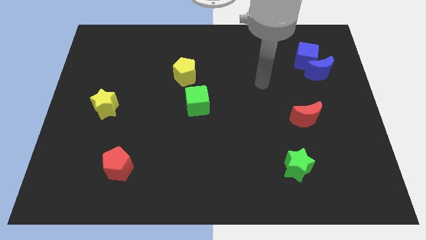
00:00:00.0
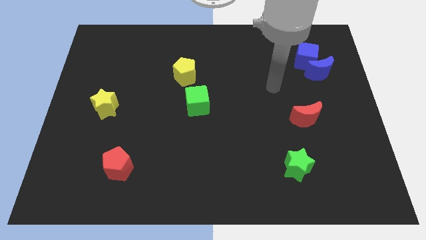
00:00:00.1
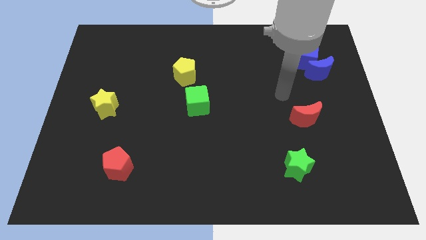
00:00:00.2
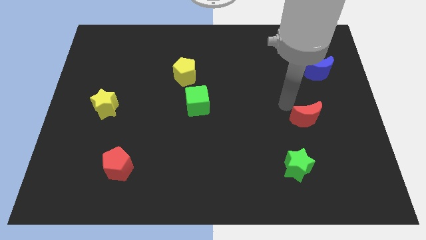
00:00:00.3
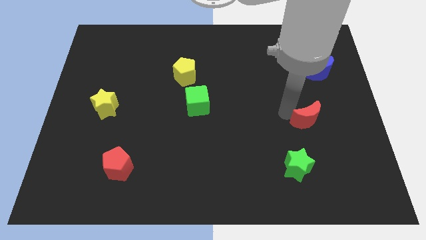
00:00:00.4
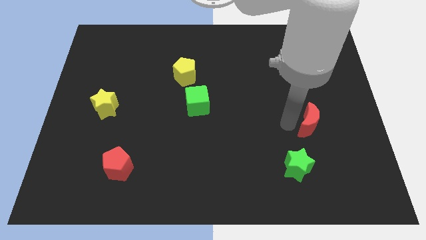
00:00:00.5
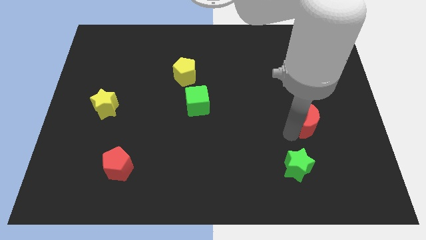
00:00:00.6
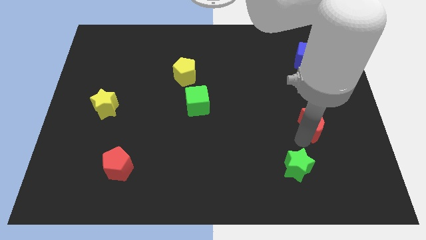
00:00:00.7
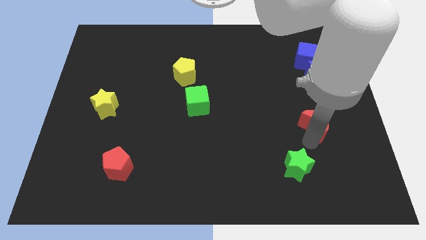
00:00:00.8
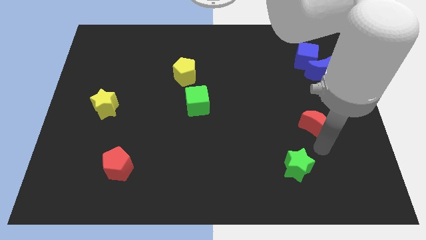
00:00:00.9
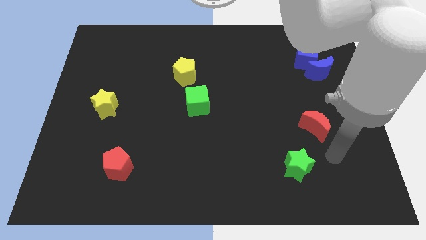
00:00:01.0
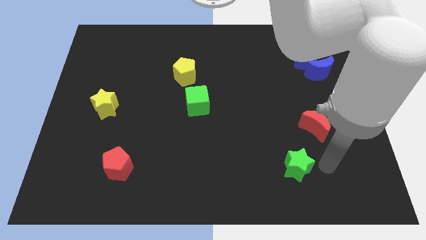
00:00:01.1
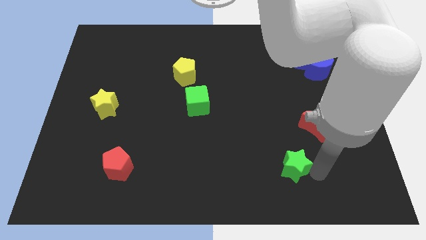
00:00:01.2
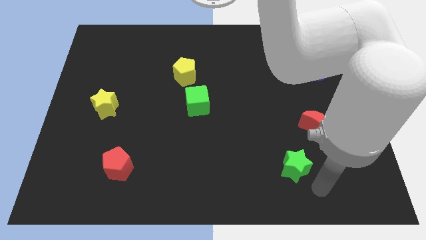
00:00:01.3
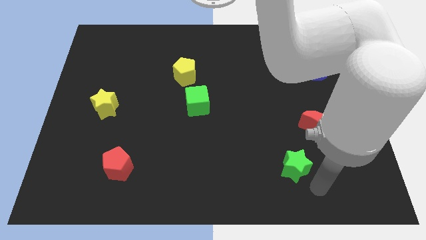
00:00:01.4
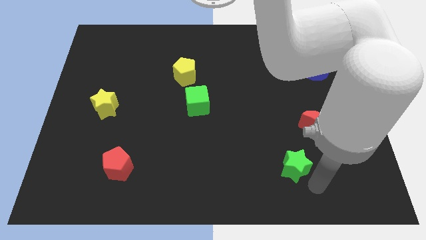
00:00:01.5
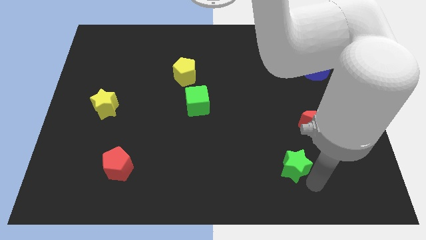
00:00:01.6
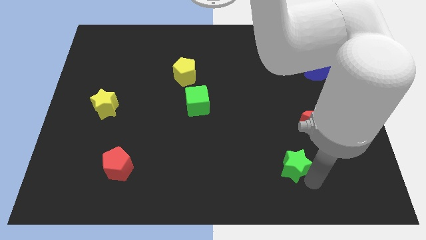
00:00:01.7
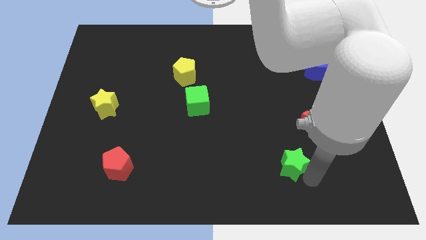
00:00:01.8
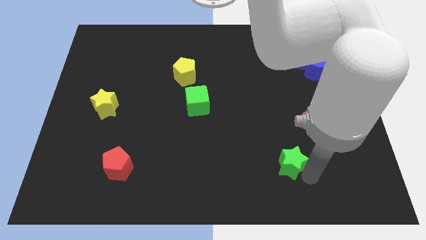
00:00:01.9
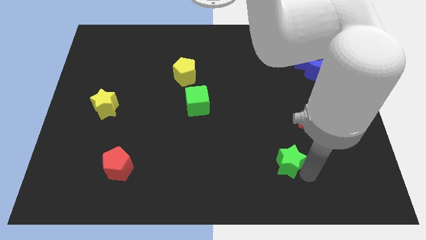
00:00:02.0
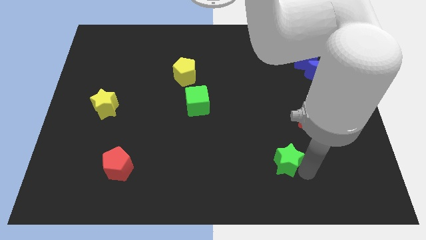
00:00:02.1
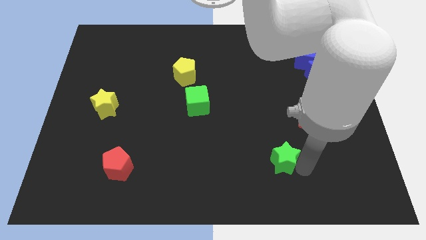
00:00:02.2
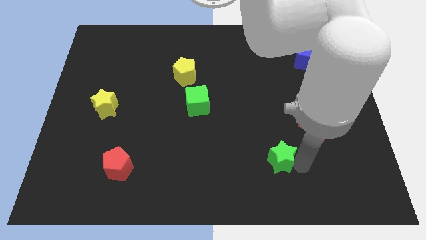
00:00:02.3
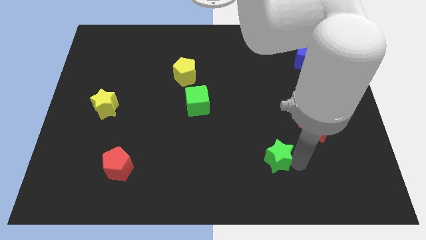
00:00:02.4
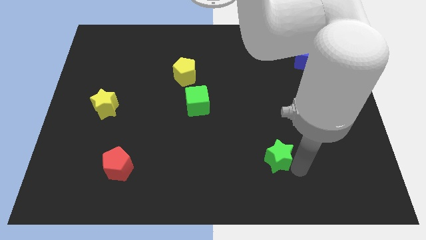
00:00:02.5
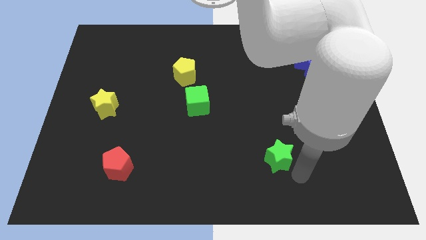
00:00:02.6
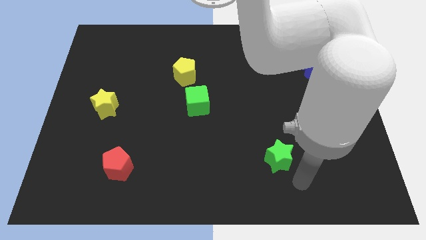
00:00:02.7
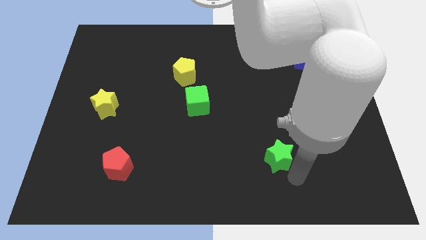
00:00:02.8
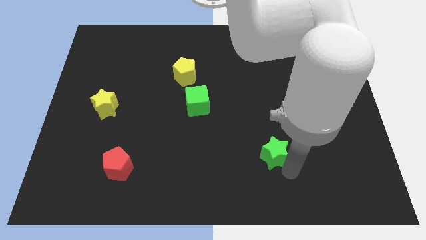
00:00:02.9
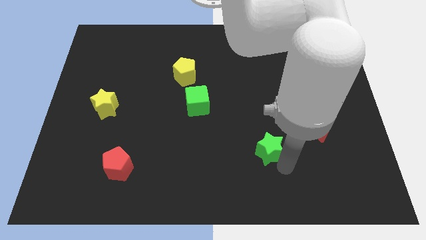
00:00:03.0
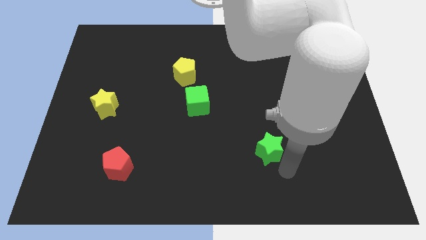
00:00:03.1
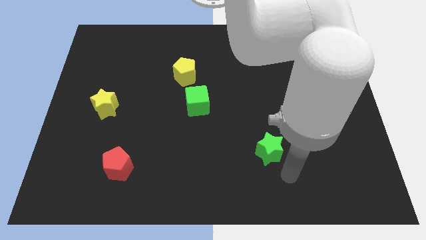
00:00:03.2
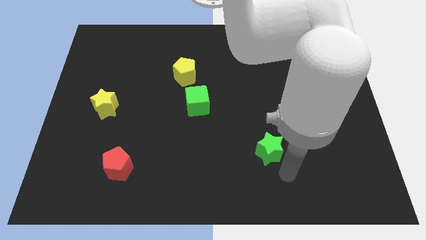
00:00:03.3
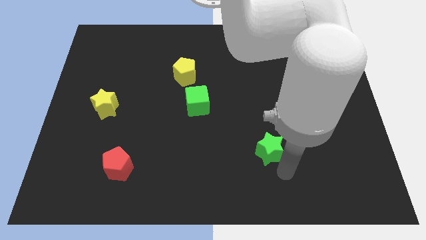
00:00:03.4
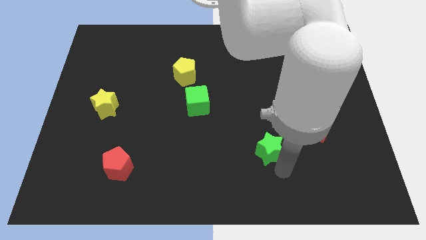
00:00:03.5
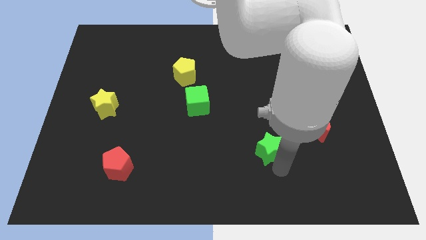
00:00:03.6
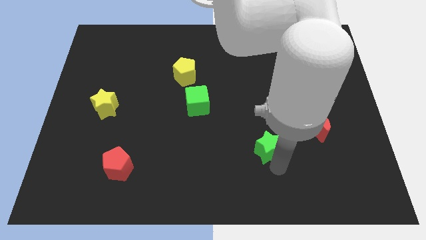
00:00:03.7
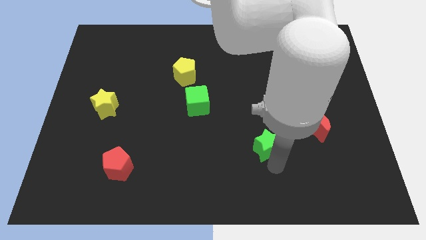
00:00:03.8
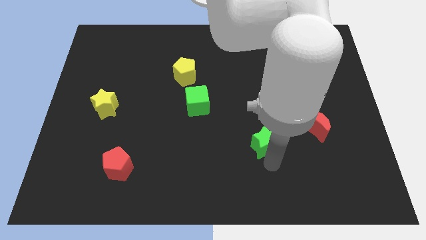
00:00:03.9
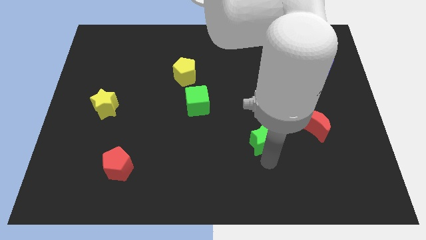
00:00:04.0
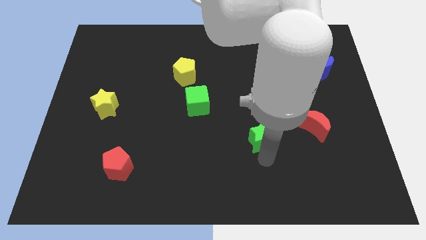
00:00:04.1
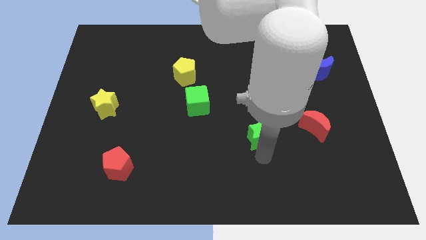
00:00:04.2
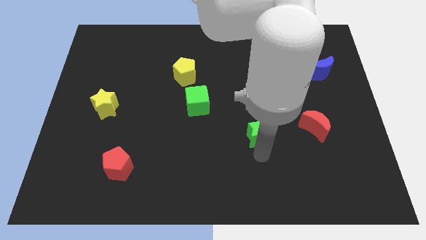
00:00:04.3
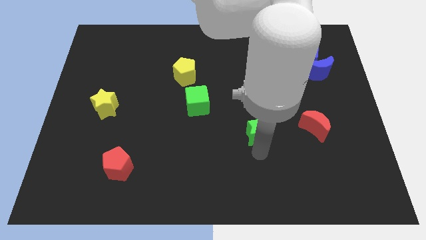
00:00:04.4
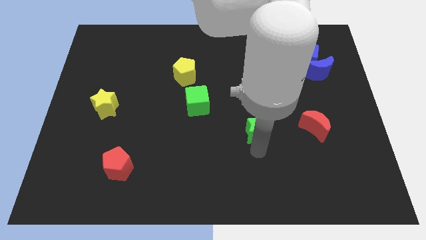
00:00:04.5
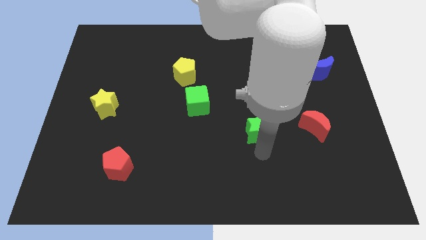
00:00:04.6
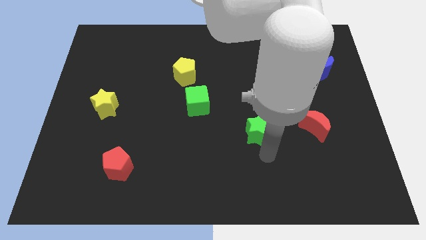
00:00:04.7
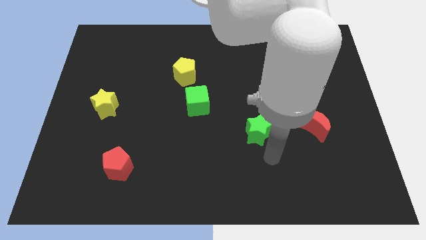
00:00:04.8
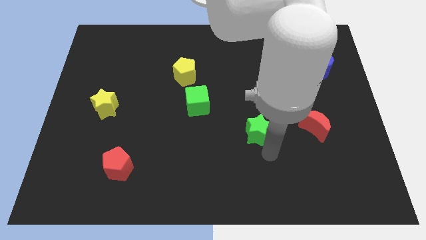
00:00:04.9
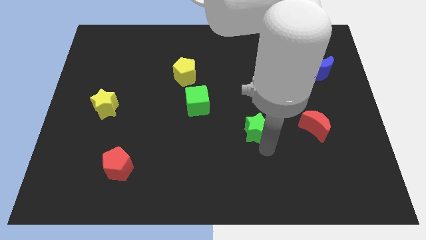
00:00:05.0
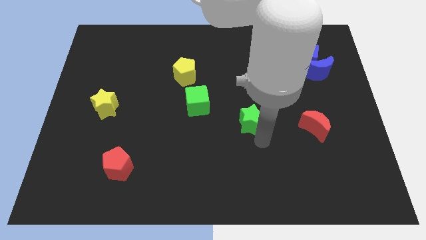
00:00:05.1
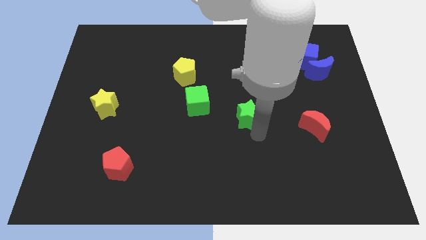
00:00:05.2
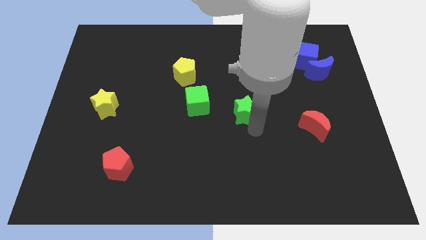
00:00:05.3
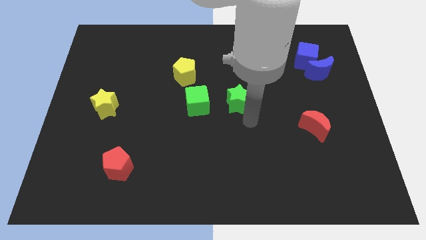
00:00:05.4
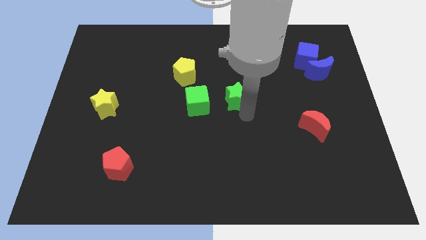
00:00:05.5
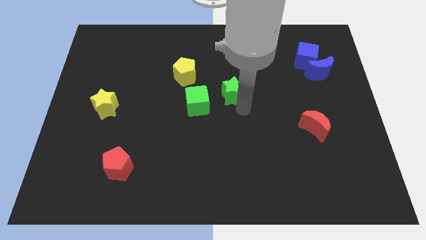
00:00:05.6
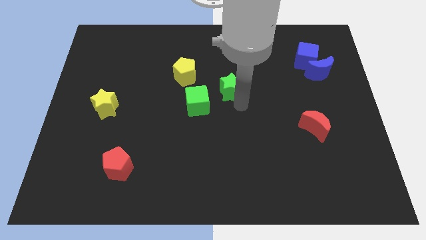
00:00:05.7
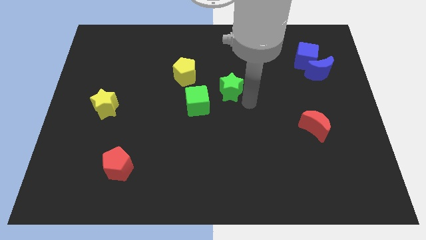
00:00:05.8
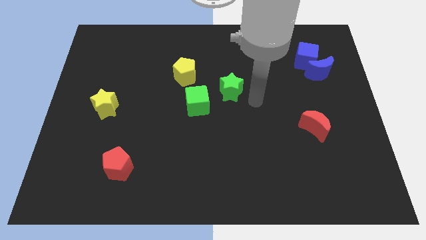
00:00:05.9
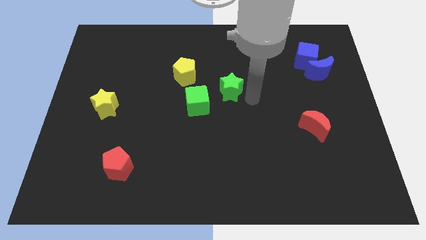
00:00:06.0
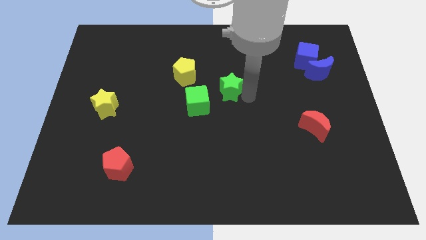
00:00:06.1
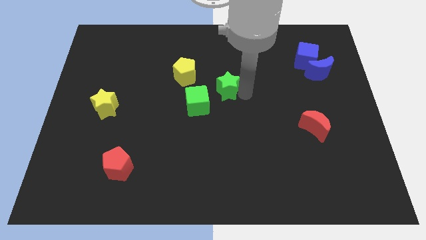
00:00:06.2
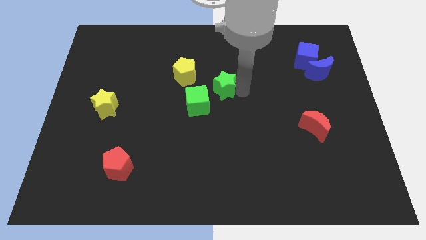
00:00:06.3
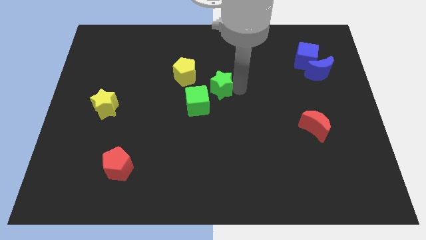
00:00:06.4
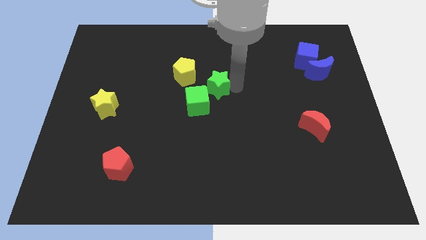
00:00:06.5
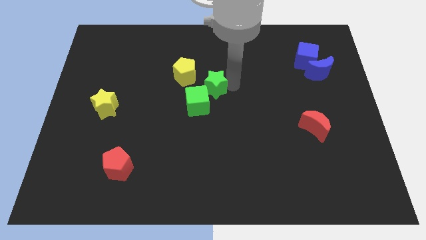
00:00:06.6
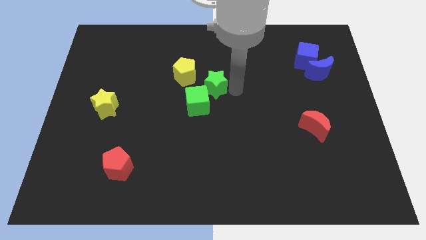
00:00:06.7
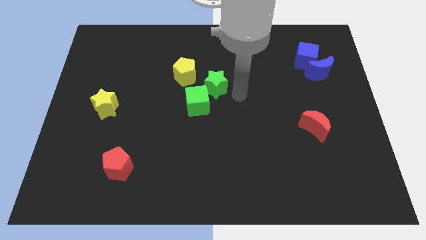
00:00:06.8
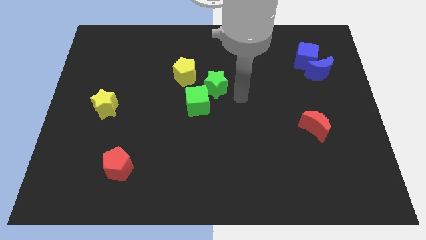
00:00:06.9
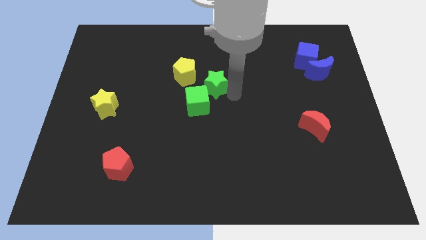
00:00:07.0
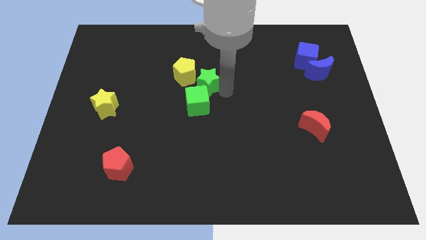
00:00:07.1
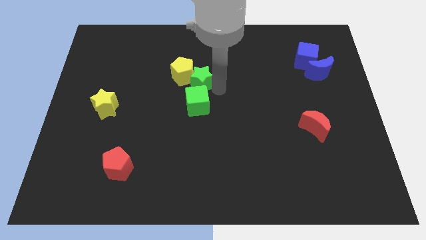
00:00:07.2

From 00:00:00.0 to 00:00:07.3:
push the green star close to the yellow pentagon

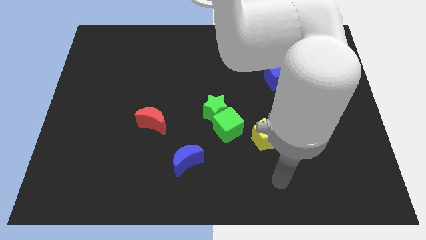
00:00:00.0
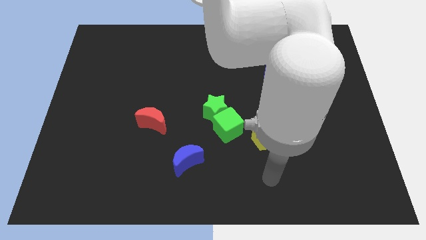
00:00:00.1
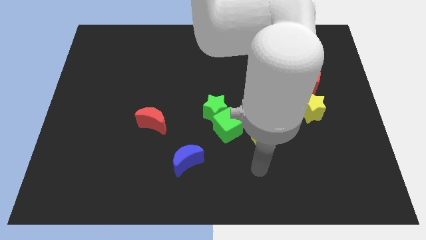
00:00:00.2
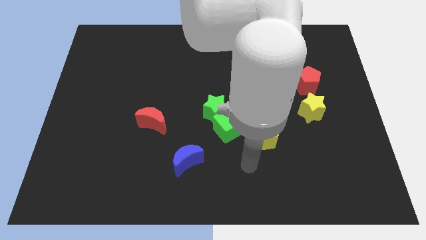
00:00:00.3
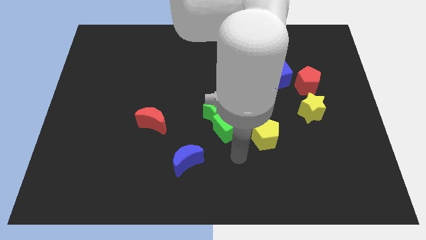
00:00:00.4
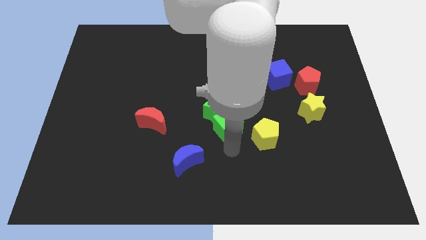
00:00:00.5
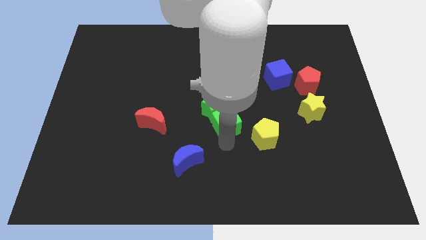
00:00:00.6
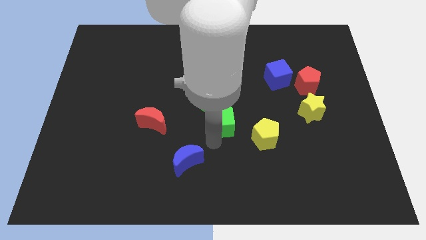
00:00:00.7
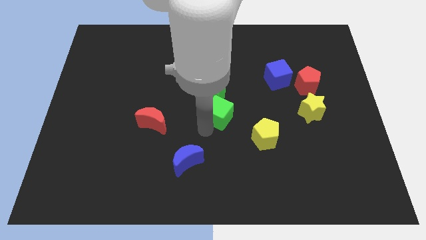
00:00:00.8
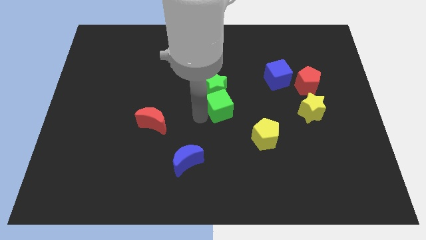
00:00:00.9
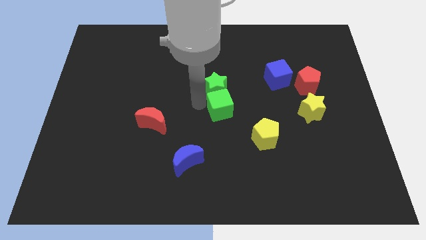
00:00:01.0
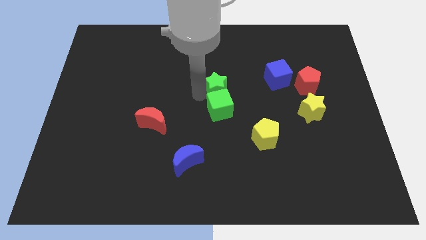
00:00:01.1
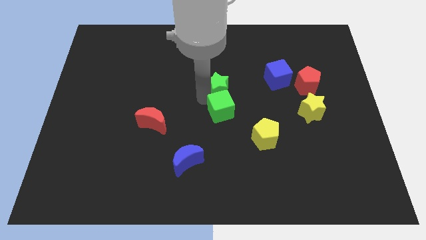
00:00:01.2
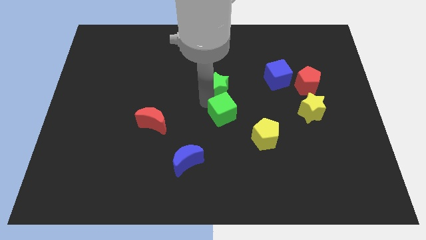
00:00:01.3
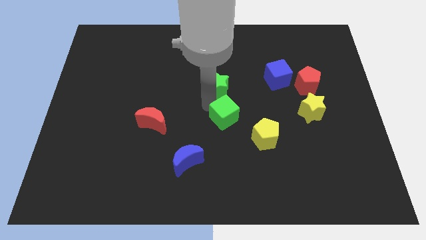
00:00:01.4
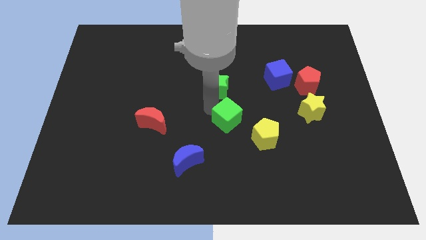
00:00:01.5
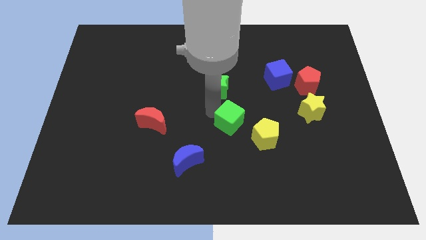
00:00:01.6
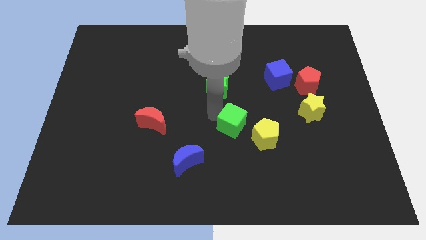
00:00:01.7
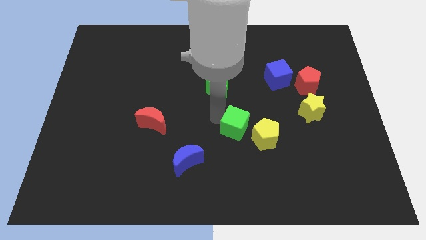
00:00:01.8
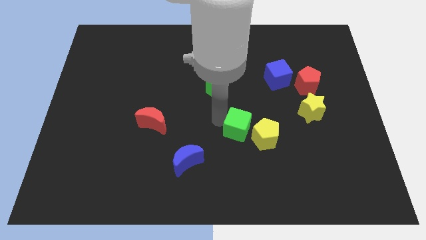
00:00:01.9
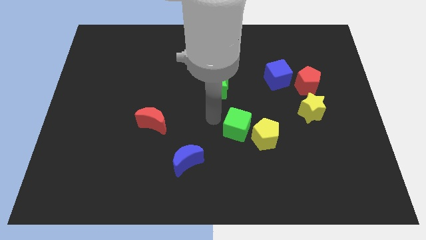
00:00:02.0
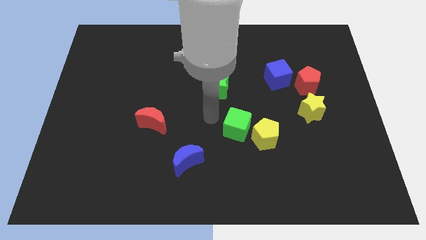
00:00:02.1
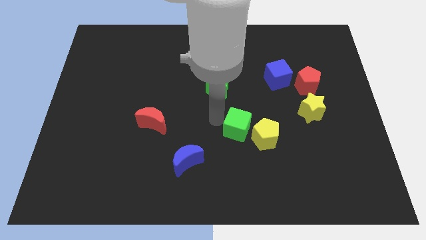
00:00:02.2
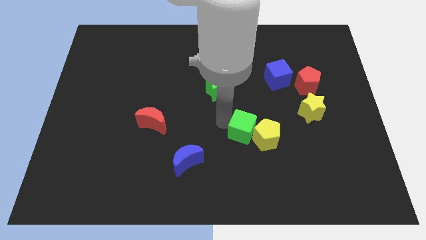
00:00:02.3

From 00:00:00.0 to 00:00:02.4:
move the green cube next to the yellow pentagon
